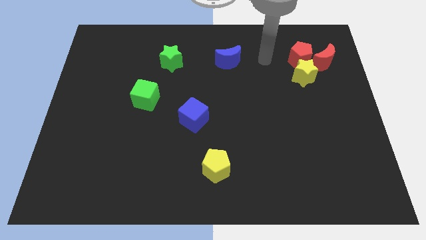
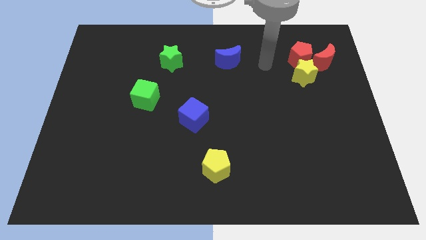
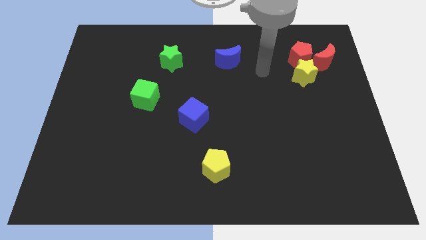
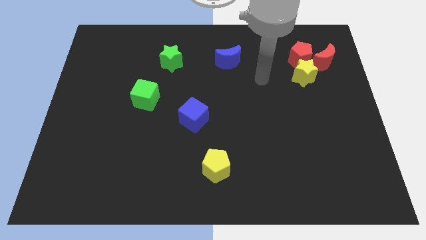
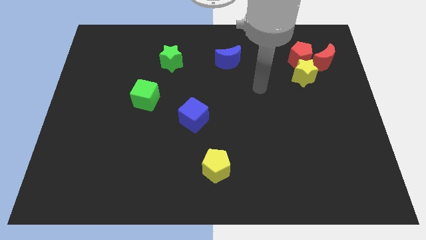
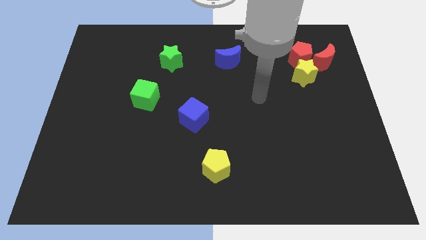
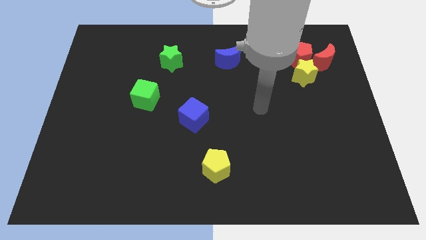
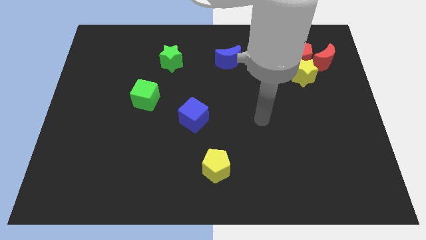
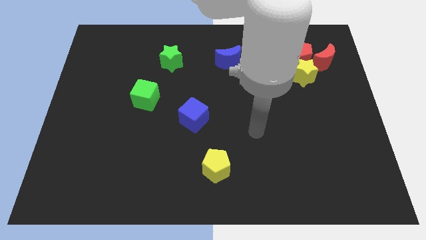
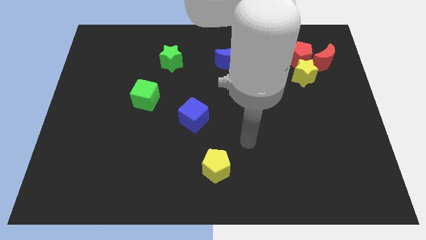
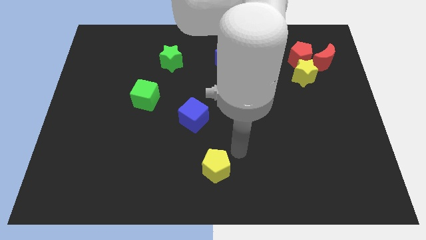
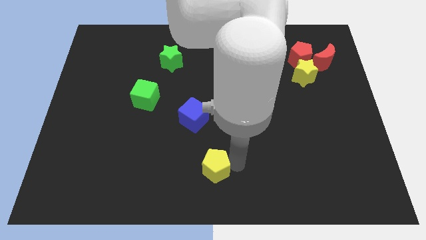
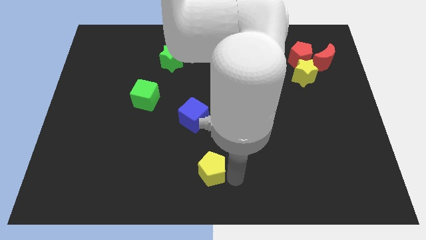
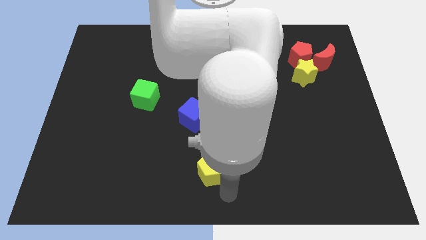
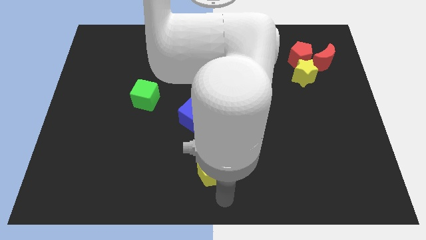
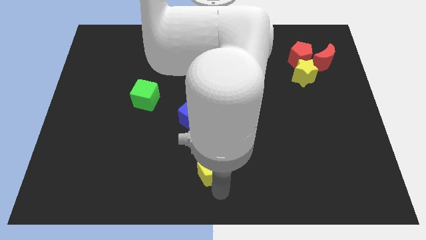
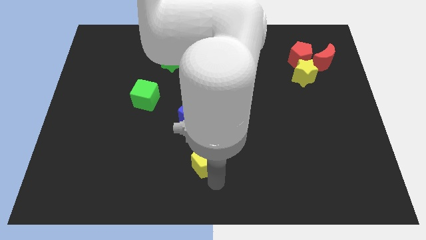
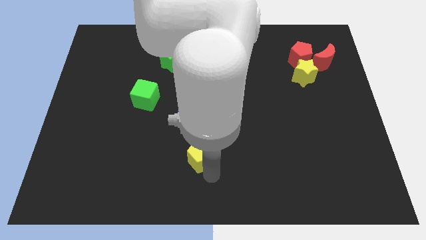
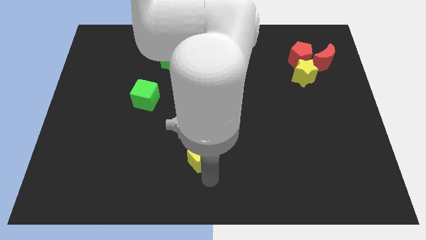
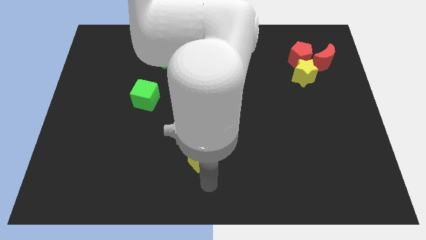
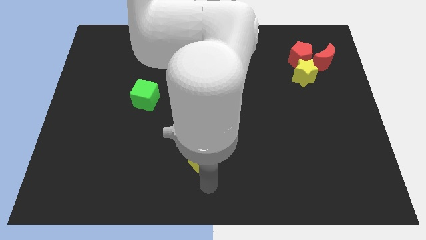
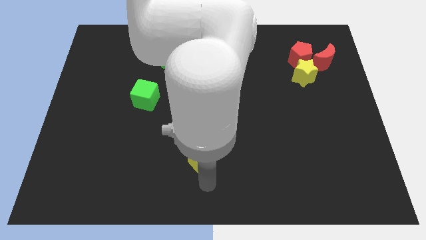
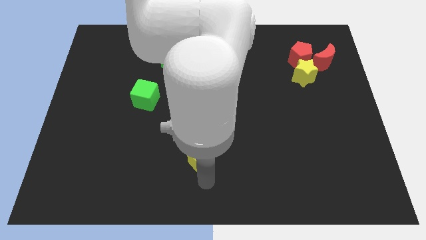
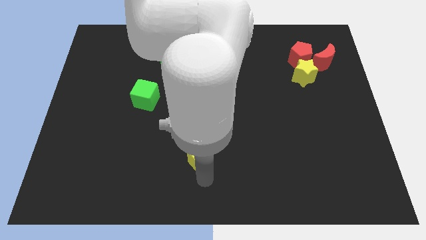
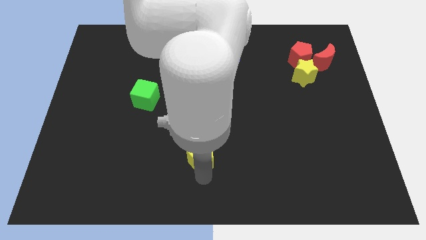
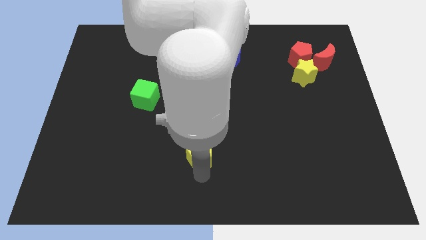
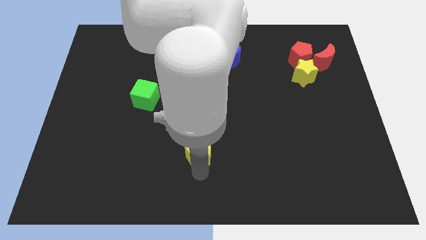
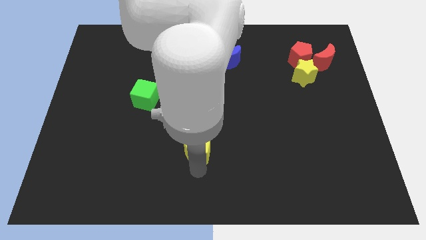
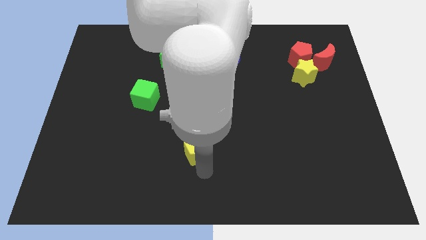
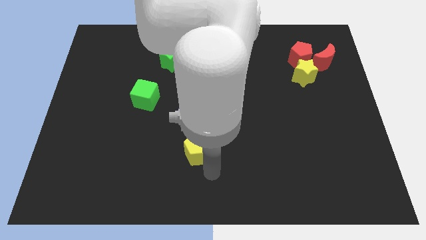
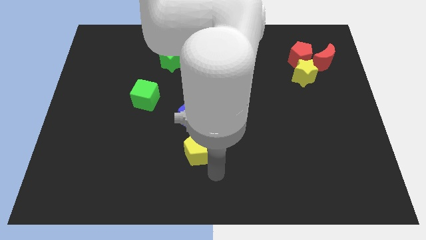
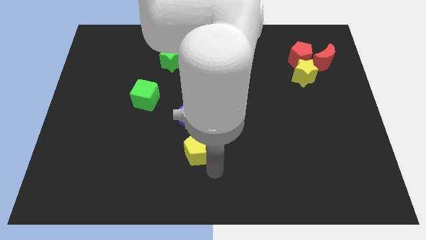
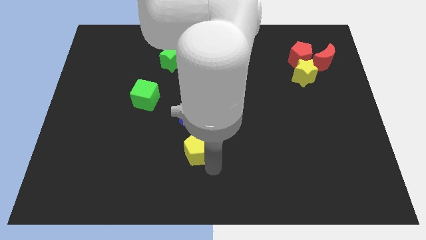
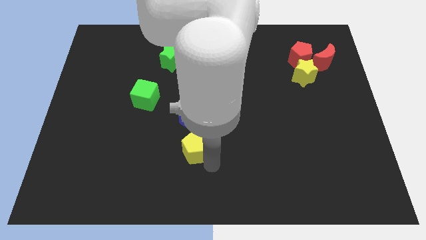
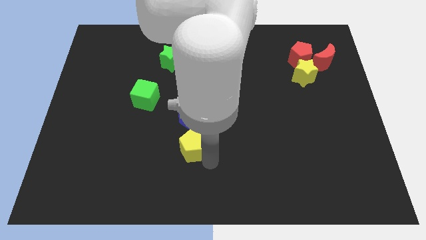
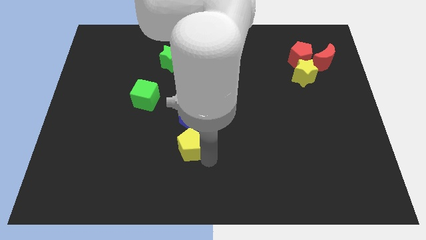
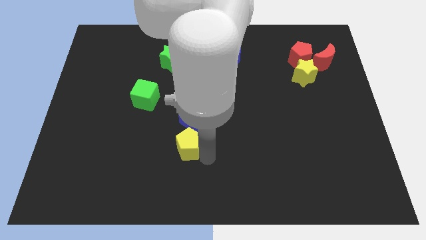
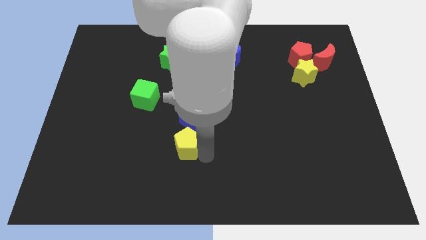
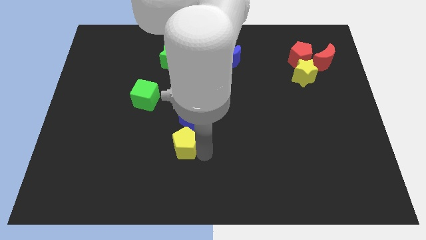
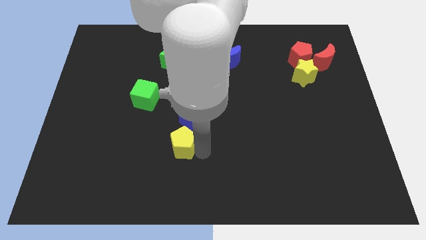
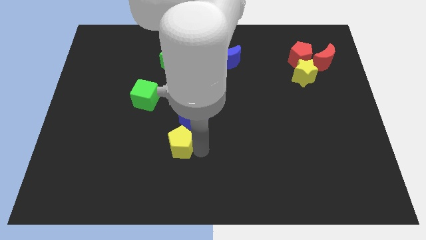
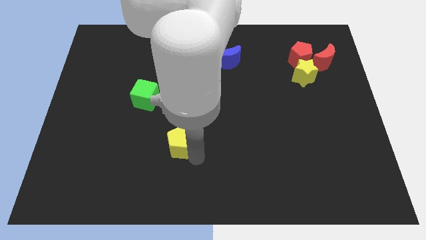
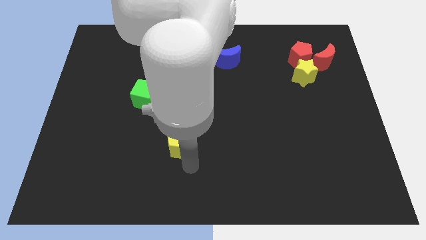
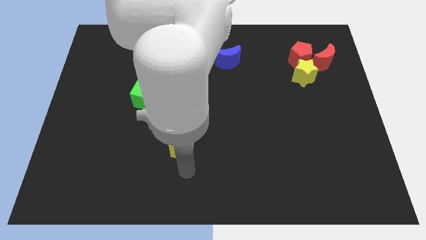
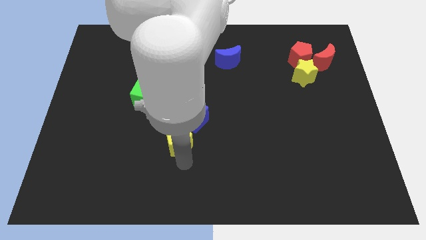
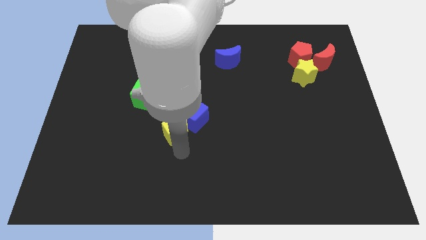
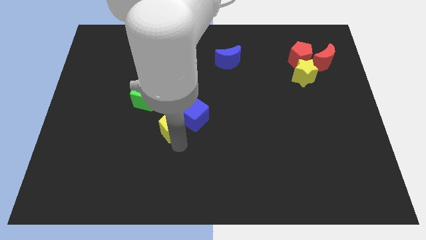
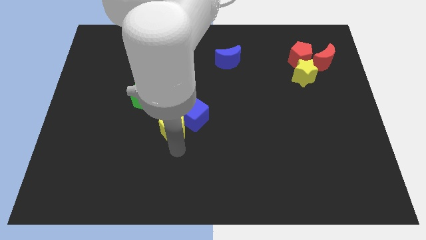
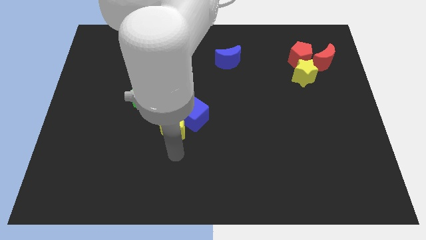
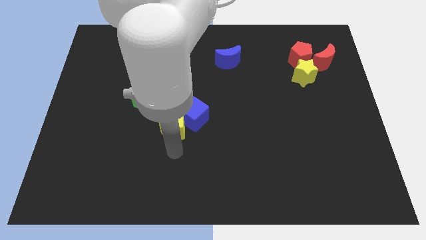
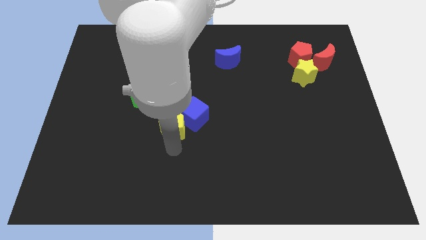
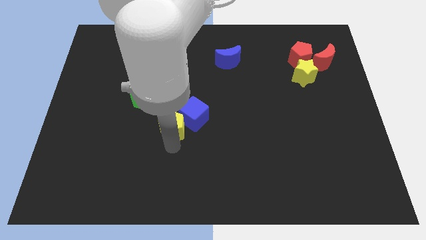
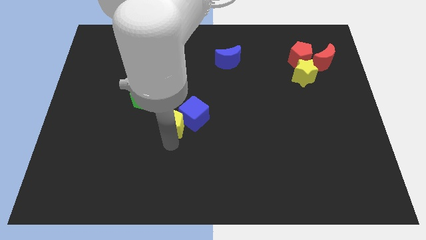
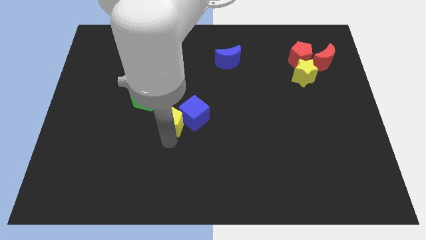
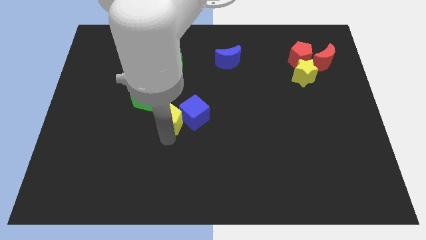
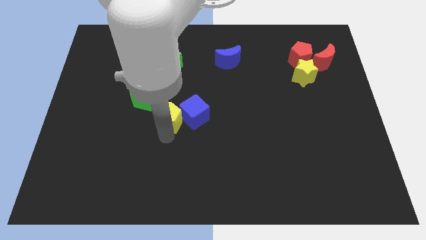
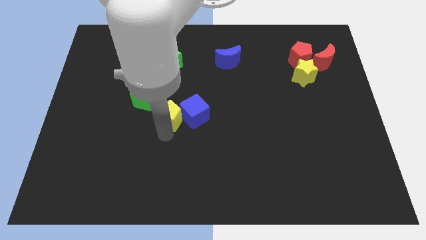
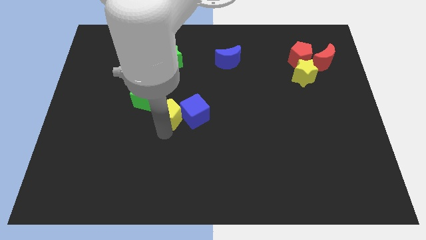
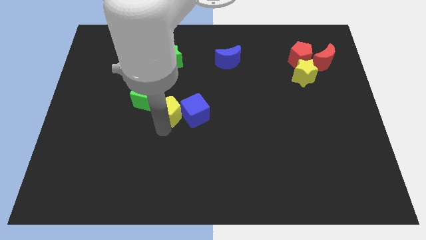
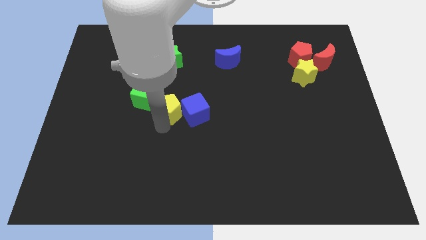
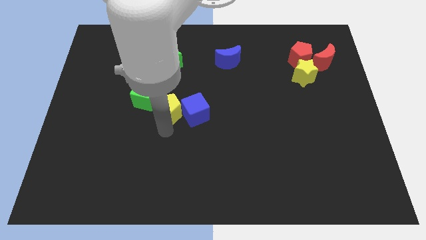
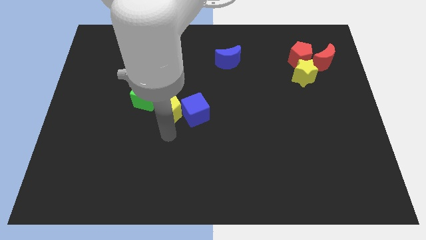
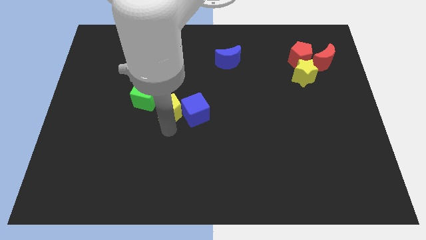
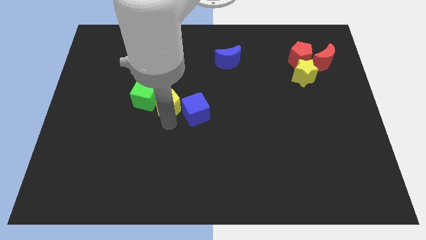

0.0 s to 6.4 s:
move the yellow pentagon to the bottom side of the green star
